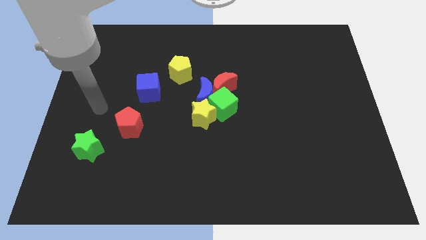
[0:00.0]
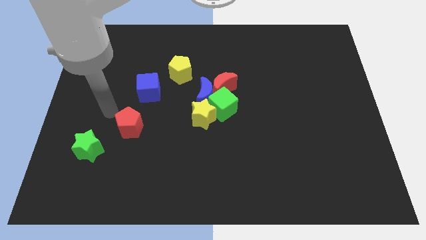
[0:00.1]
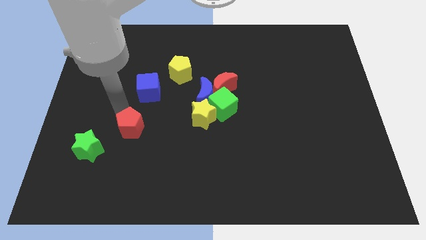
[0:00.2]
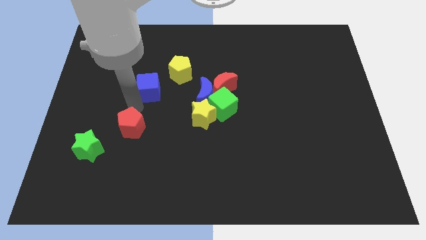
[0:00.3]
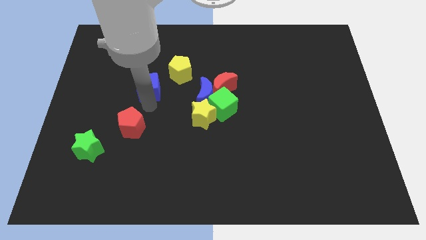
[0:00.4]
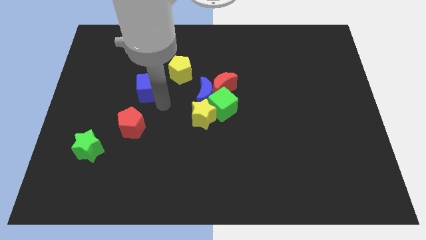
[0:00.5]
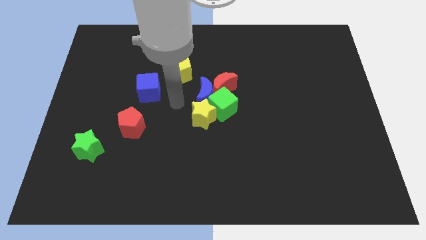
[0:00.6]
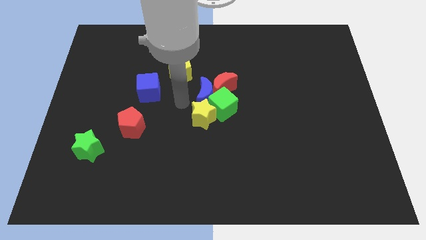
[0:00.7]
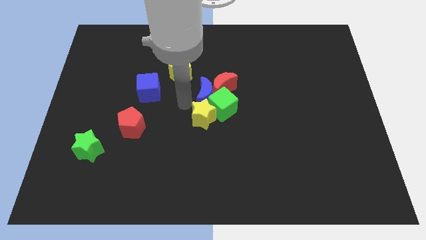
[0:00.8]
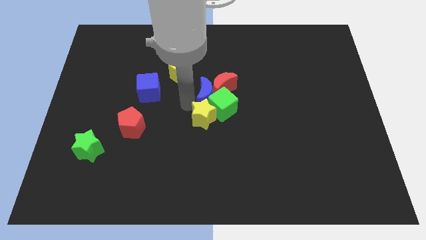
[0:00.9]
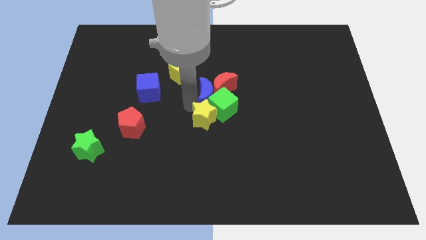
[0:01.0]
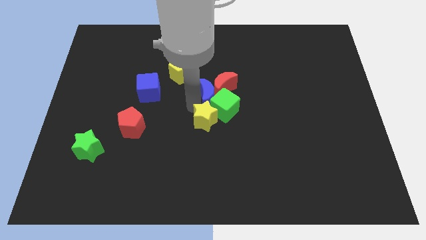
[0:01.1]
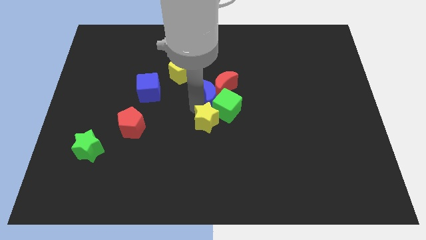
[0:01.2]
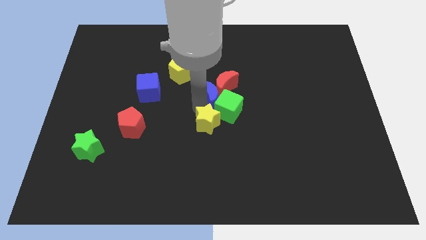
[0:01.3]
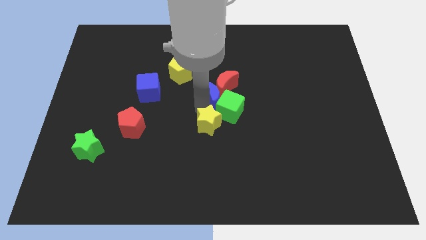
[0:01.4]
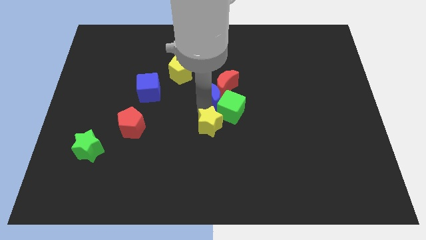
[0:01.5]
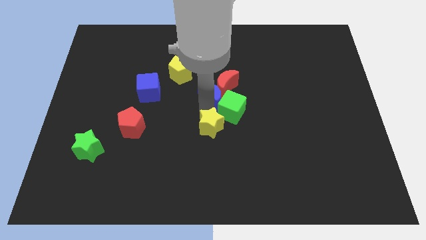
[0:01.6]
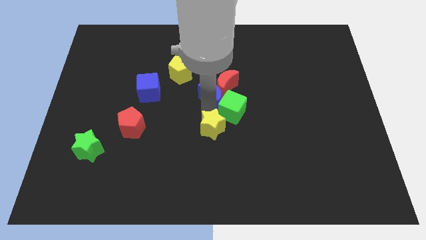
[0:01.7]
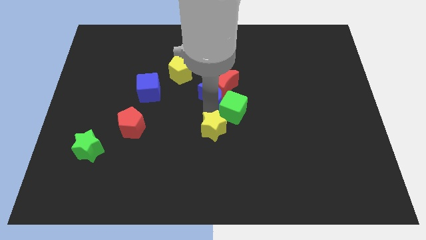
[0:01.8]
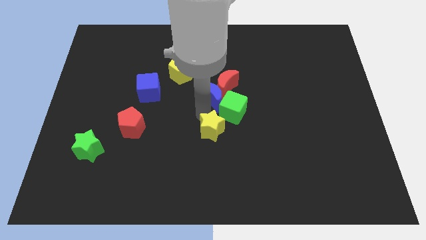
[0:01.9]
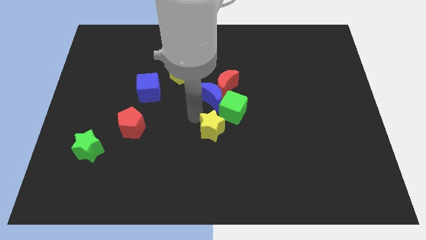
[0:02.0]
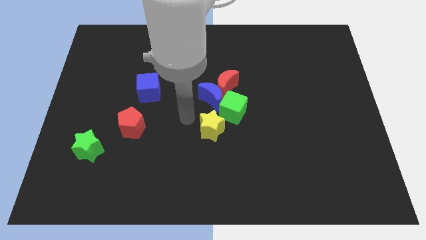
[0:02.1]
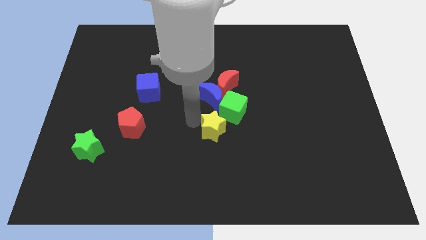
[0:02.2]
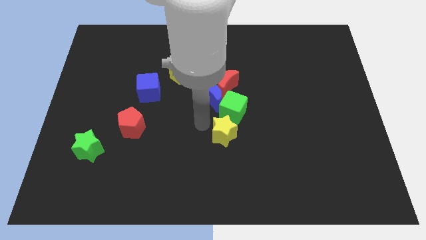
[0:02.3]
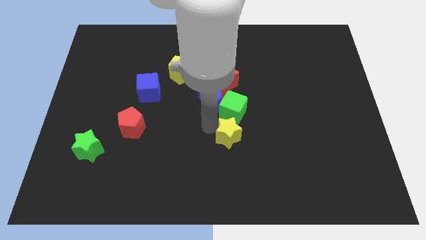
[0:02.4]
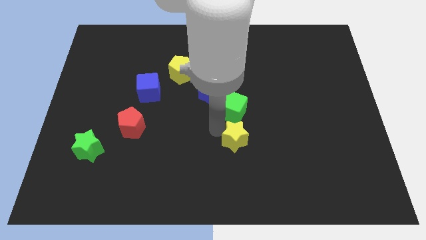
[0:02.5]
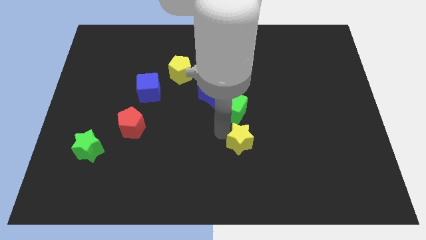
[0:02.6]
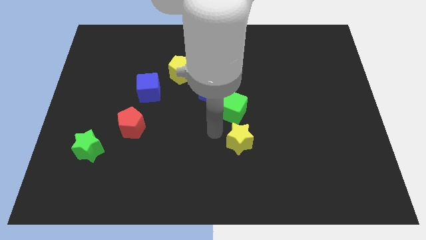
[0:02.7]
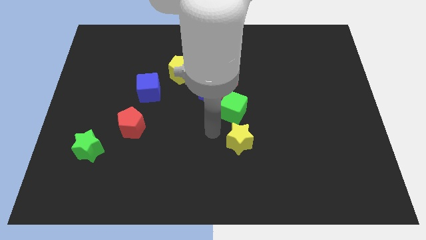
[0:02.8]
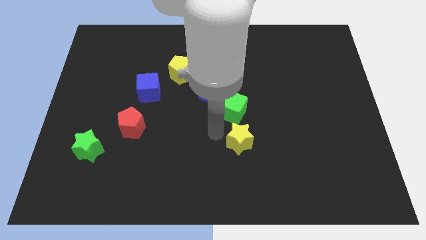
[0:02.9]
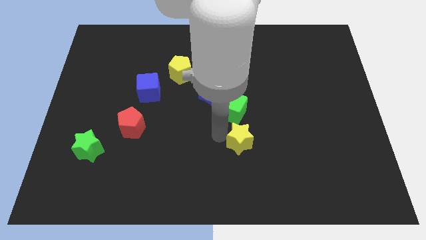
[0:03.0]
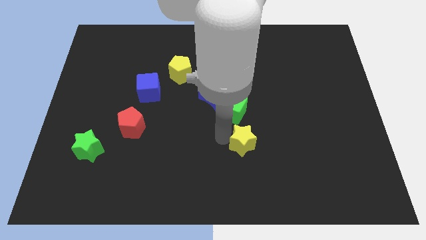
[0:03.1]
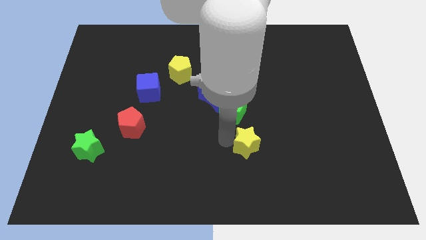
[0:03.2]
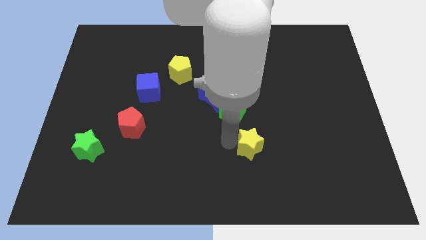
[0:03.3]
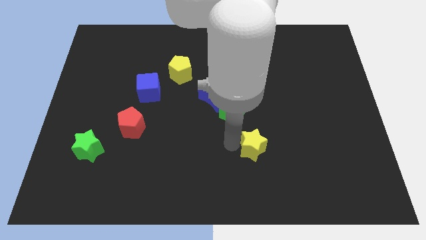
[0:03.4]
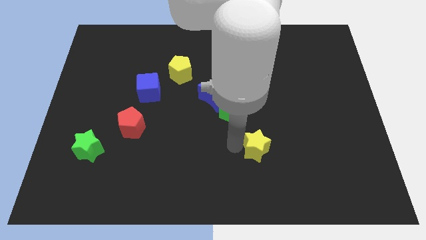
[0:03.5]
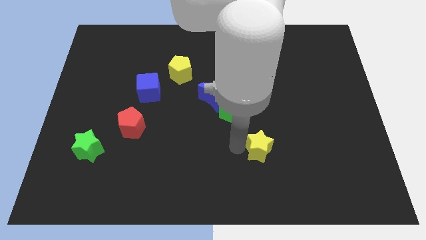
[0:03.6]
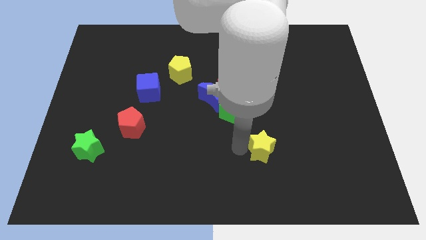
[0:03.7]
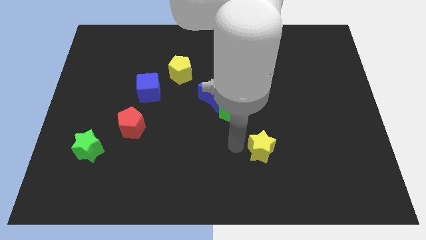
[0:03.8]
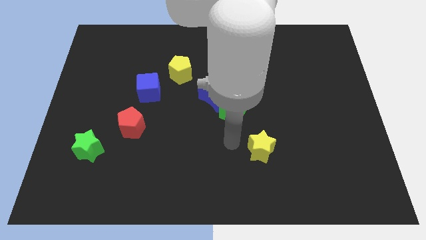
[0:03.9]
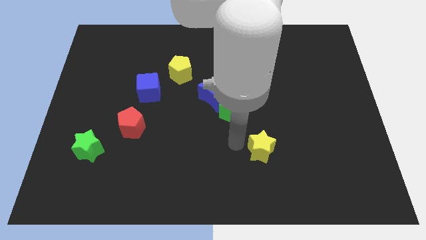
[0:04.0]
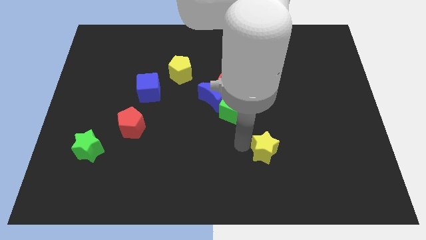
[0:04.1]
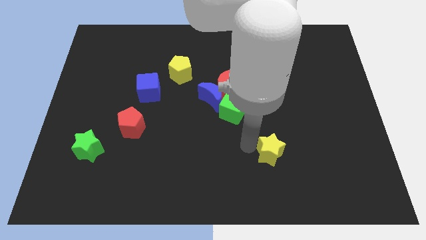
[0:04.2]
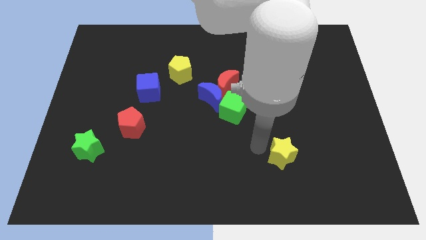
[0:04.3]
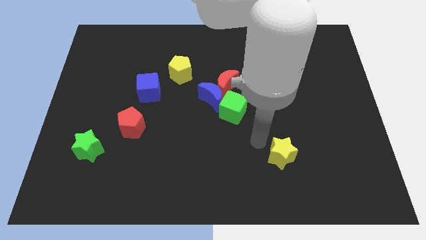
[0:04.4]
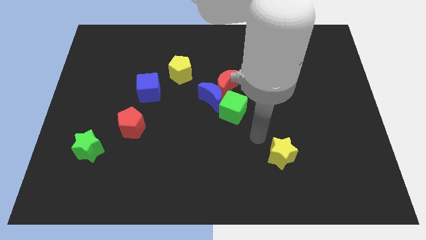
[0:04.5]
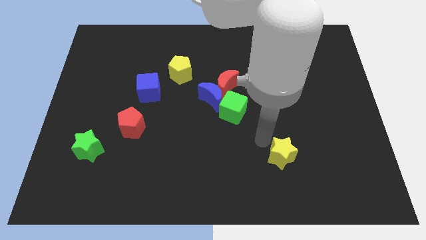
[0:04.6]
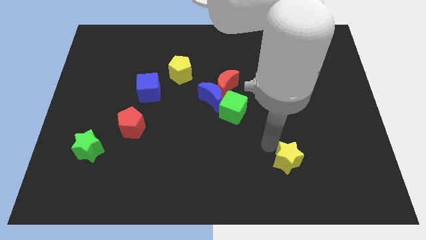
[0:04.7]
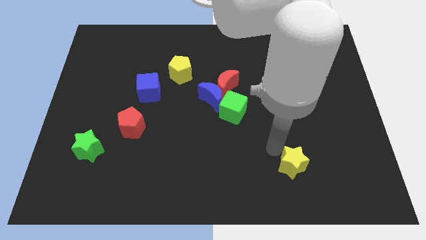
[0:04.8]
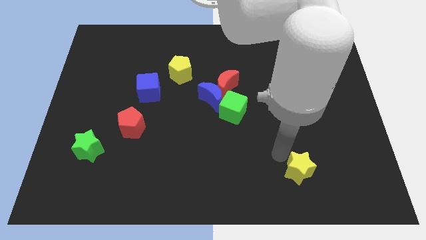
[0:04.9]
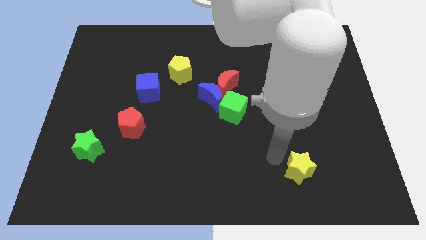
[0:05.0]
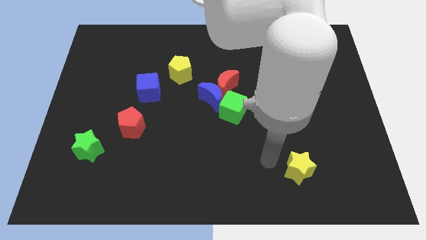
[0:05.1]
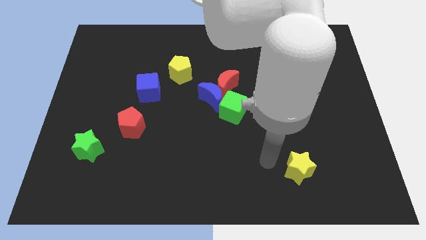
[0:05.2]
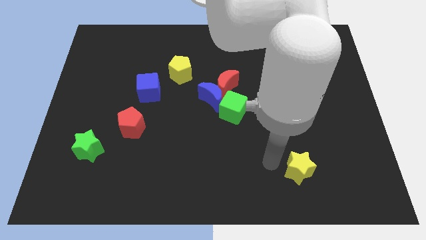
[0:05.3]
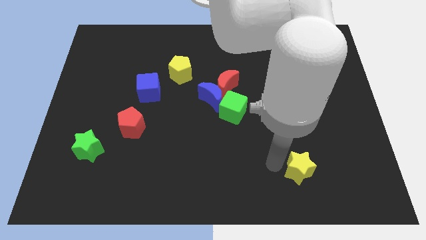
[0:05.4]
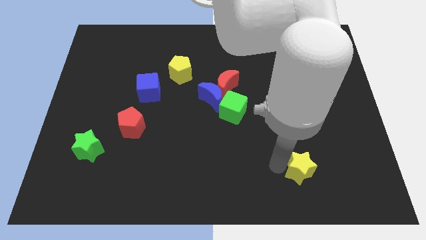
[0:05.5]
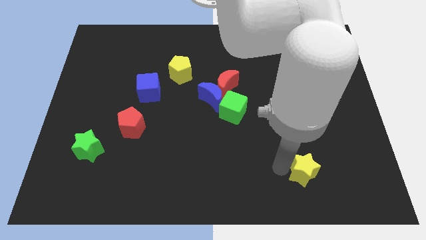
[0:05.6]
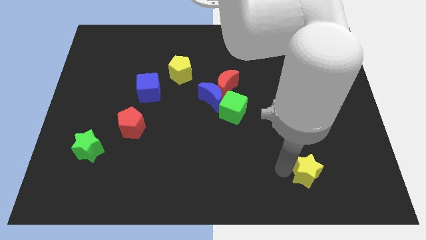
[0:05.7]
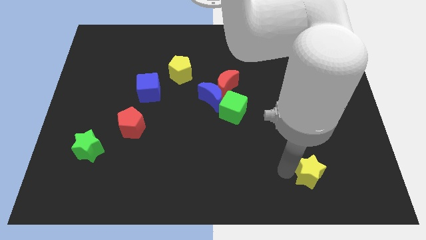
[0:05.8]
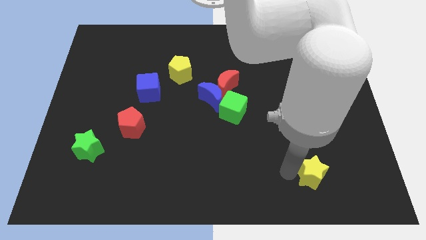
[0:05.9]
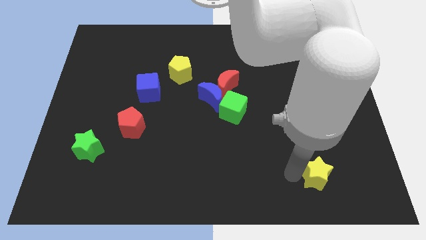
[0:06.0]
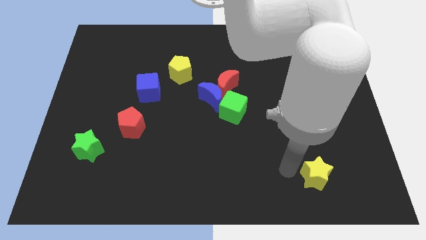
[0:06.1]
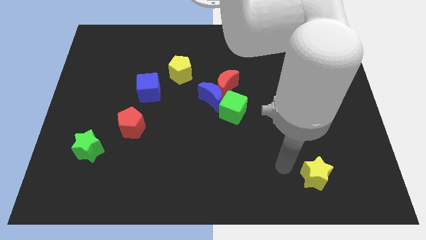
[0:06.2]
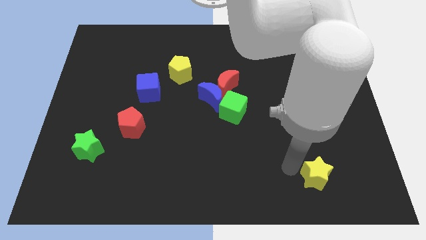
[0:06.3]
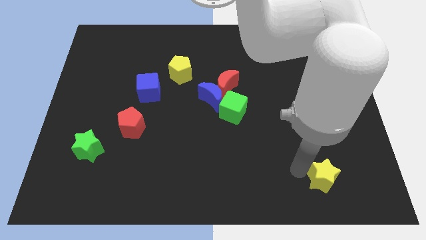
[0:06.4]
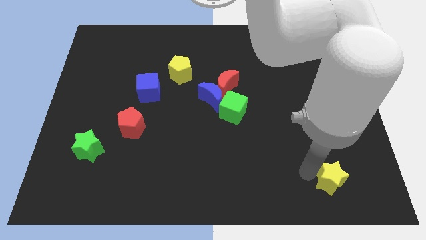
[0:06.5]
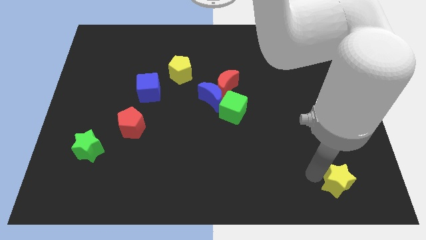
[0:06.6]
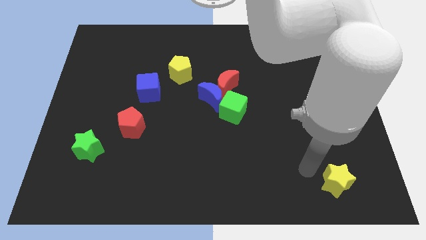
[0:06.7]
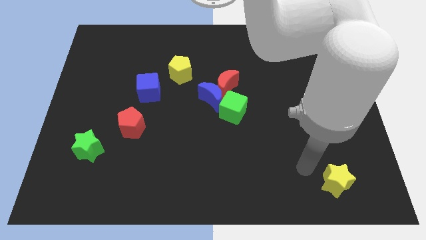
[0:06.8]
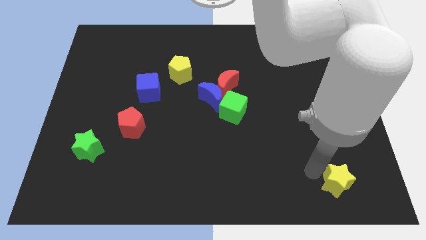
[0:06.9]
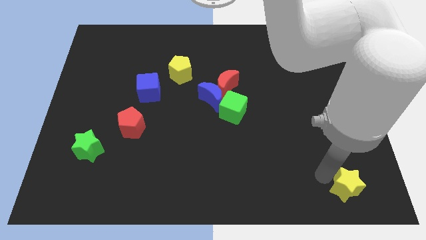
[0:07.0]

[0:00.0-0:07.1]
put the yellow star to the bottom right corner

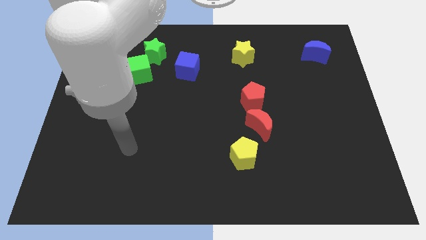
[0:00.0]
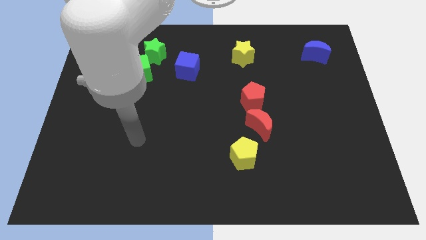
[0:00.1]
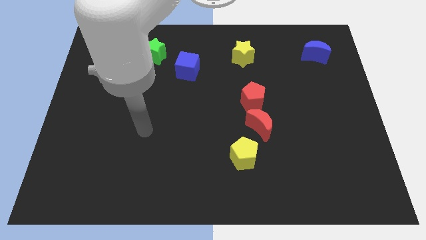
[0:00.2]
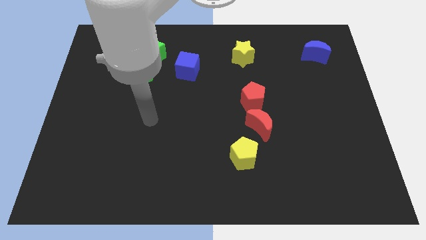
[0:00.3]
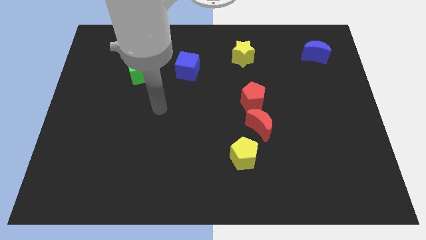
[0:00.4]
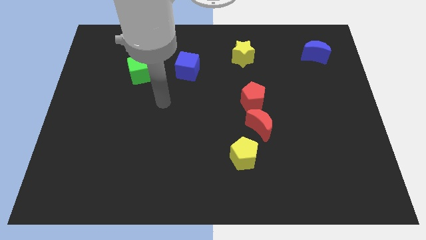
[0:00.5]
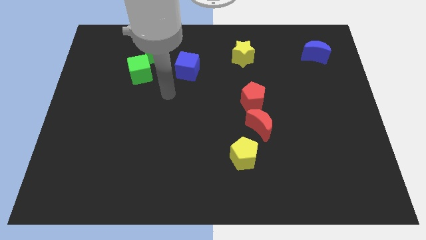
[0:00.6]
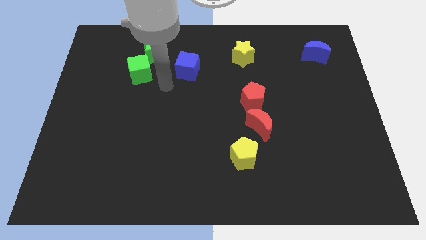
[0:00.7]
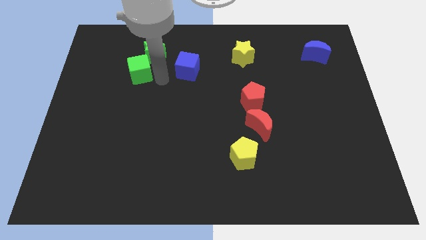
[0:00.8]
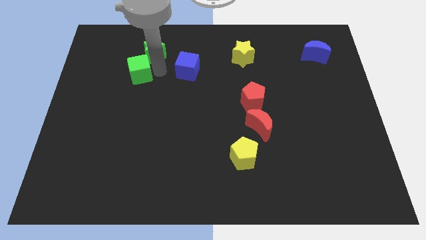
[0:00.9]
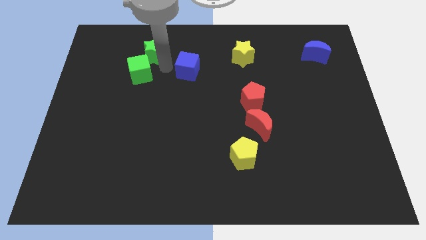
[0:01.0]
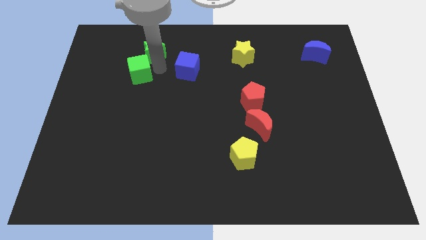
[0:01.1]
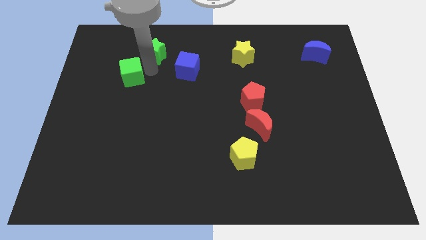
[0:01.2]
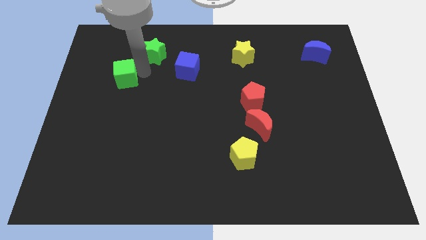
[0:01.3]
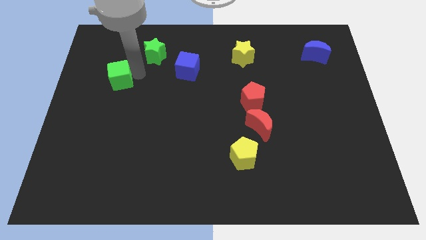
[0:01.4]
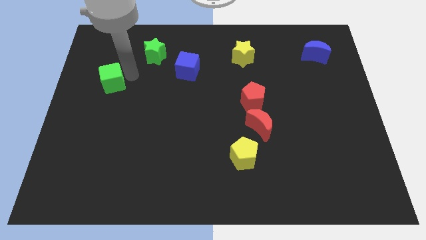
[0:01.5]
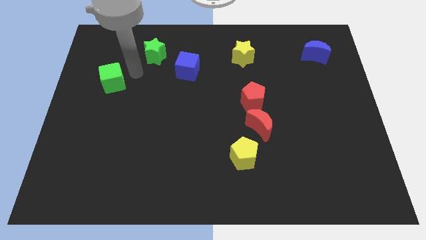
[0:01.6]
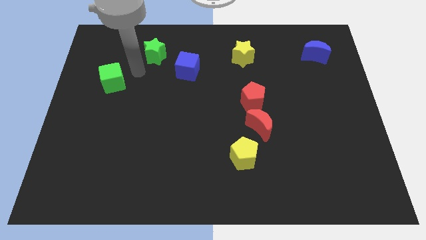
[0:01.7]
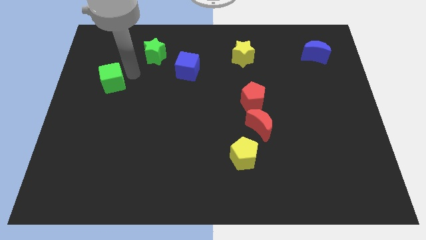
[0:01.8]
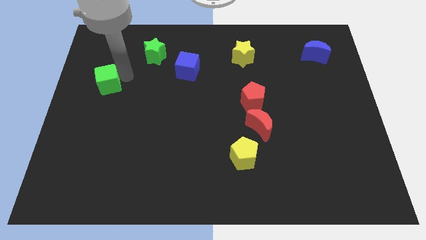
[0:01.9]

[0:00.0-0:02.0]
put the green cube to the left side
